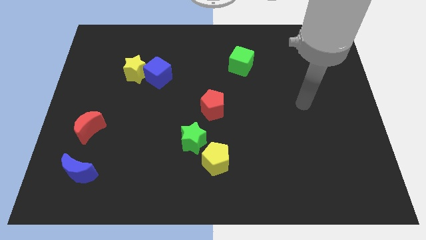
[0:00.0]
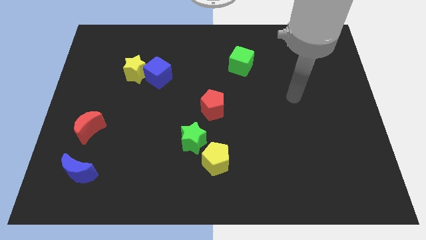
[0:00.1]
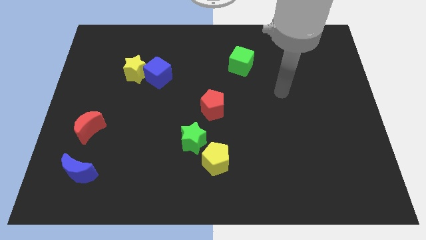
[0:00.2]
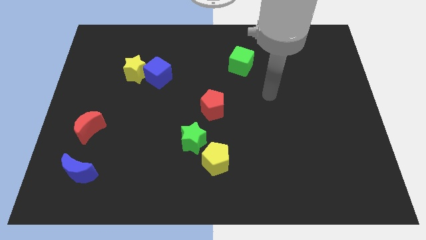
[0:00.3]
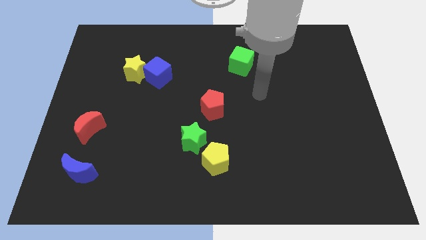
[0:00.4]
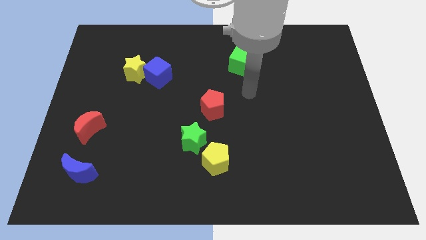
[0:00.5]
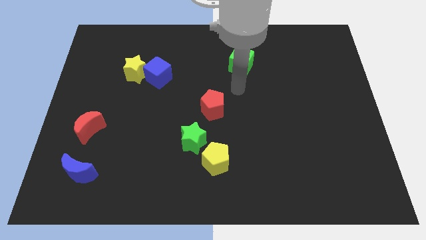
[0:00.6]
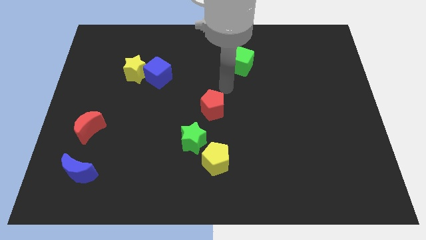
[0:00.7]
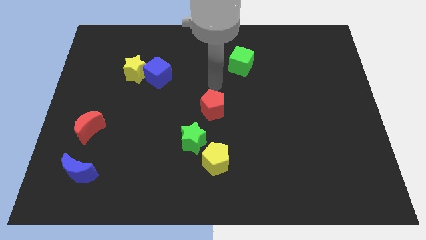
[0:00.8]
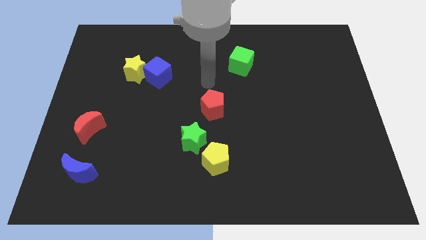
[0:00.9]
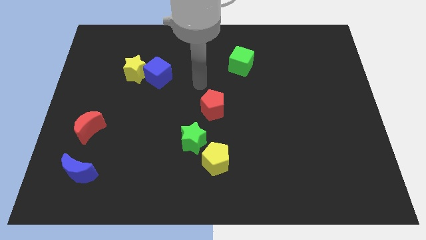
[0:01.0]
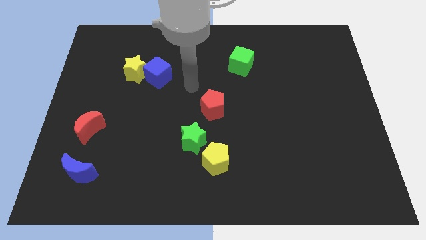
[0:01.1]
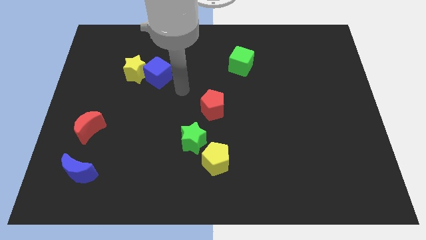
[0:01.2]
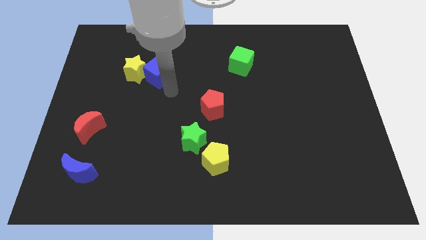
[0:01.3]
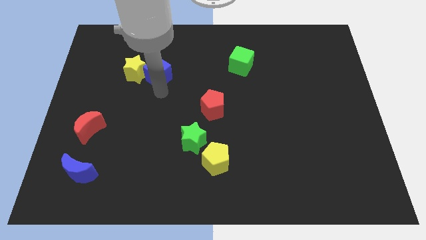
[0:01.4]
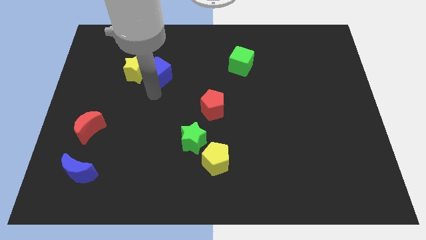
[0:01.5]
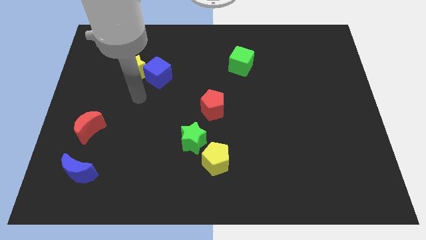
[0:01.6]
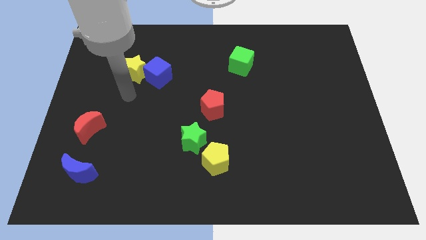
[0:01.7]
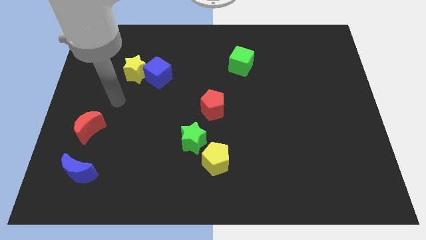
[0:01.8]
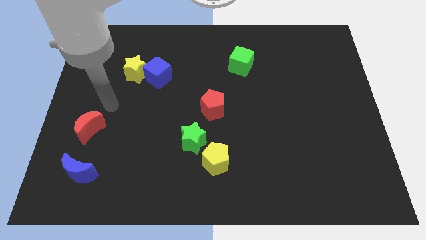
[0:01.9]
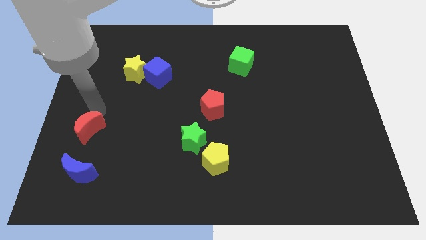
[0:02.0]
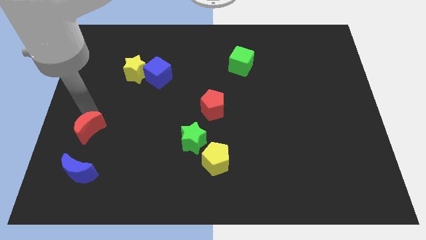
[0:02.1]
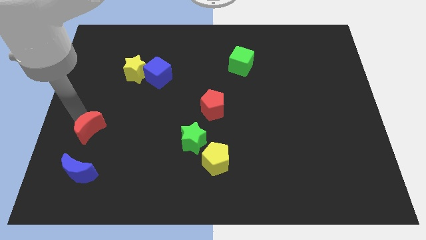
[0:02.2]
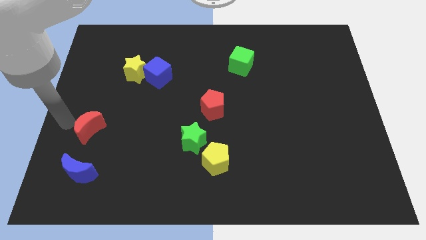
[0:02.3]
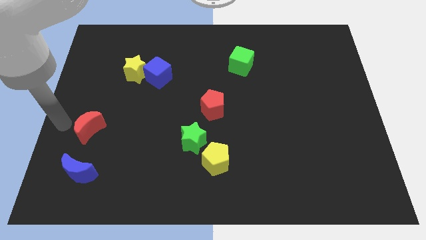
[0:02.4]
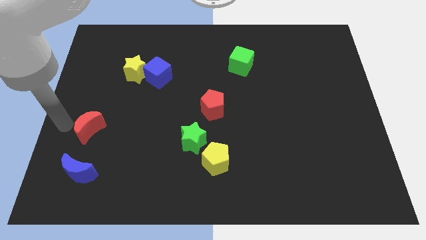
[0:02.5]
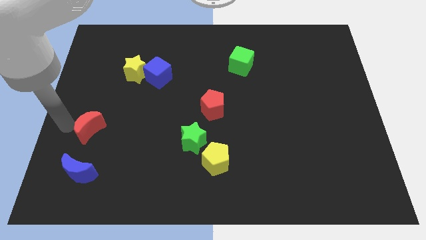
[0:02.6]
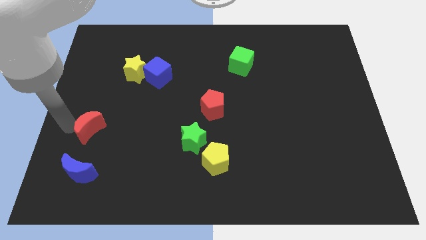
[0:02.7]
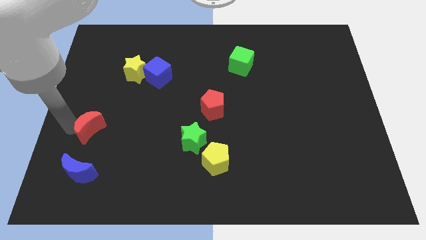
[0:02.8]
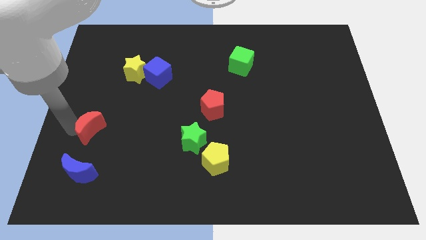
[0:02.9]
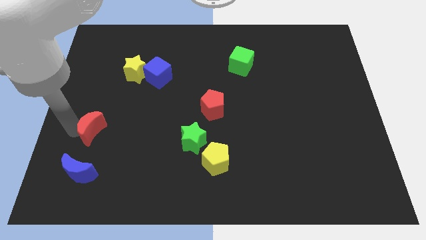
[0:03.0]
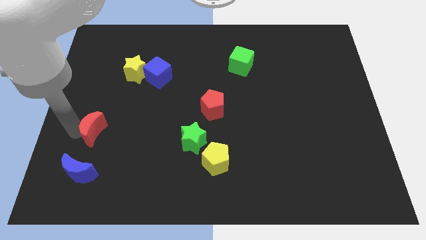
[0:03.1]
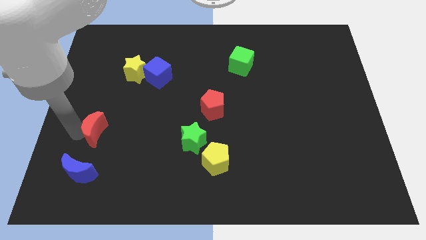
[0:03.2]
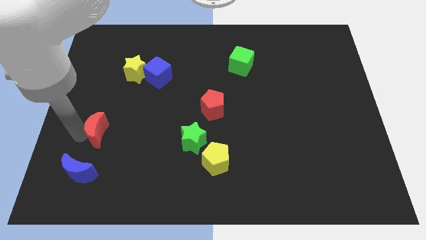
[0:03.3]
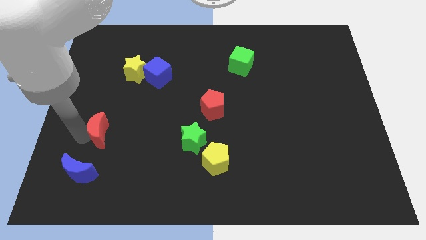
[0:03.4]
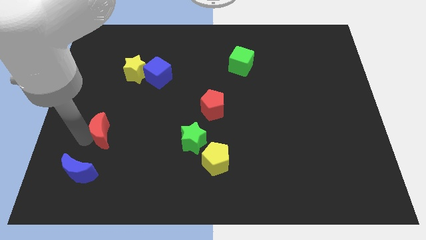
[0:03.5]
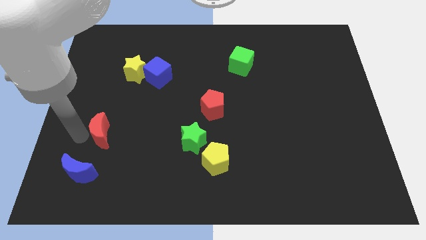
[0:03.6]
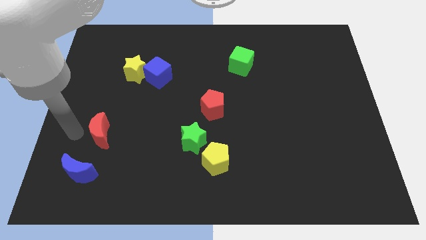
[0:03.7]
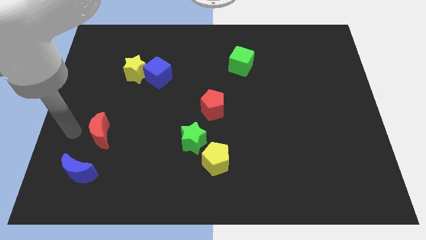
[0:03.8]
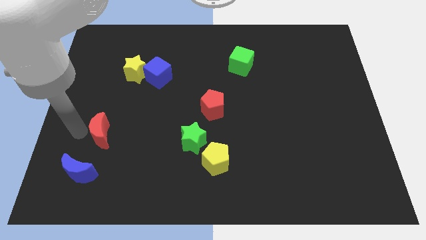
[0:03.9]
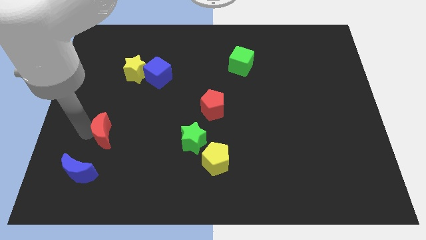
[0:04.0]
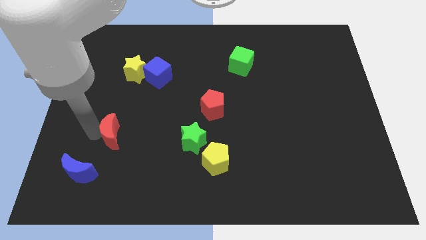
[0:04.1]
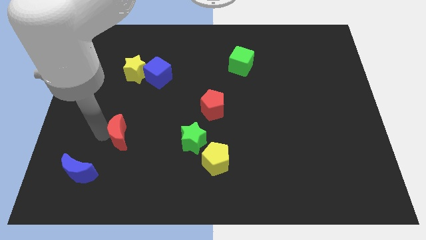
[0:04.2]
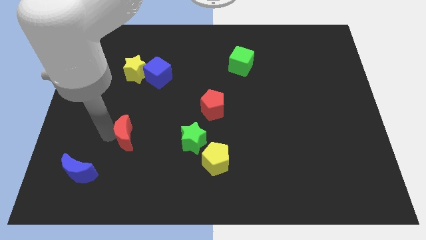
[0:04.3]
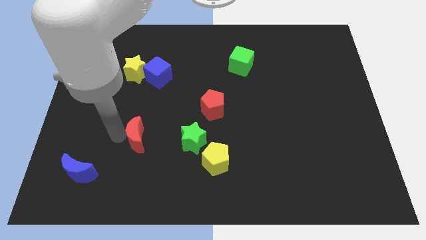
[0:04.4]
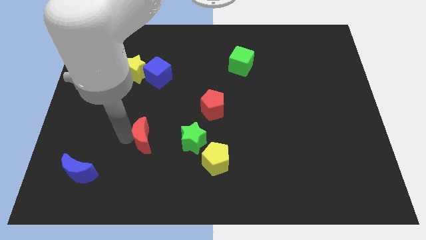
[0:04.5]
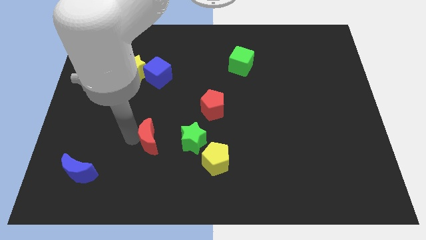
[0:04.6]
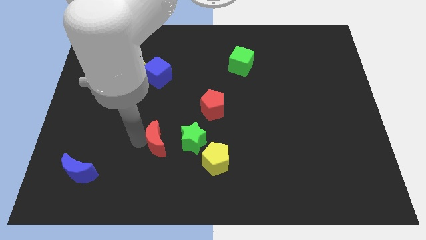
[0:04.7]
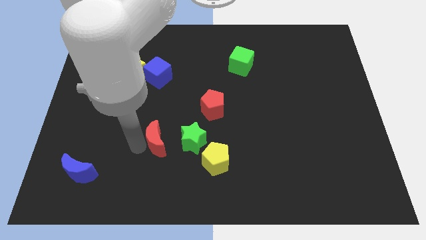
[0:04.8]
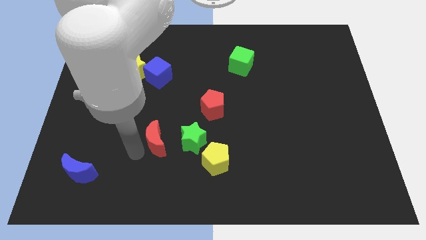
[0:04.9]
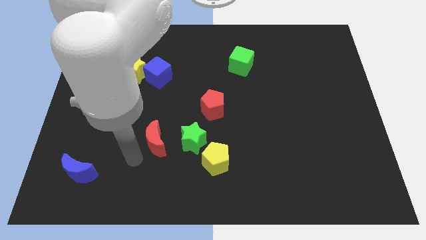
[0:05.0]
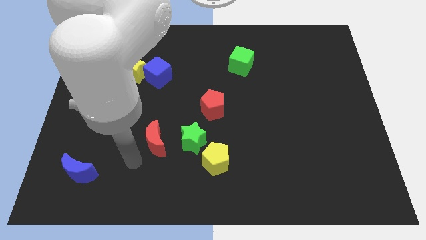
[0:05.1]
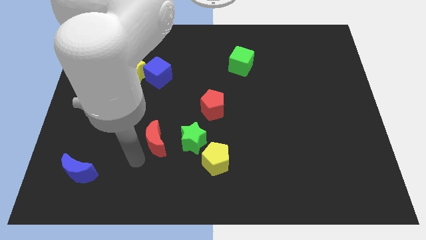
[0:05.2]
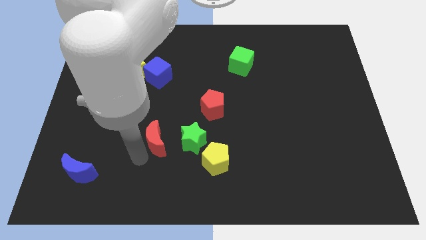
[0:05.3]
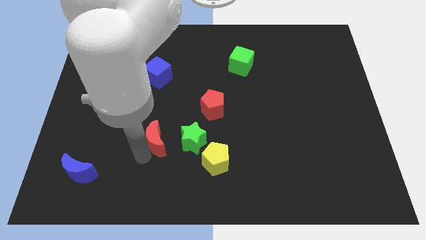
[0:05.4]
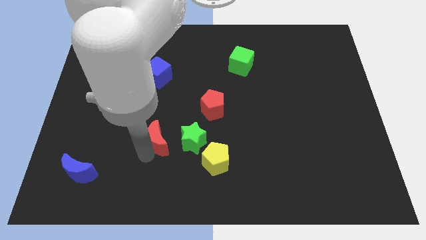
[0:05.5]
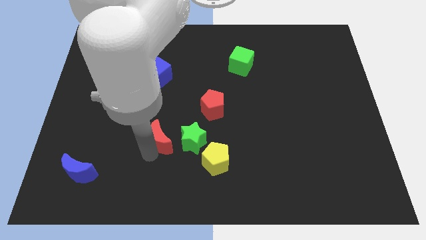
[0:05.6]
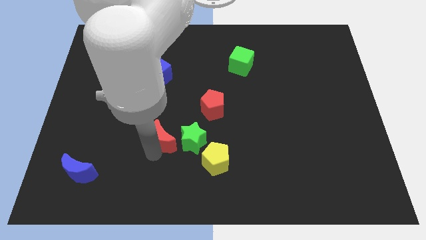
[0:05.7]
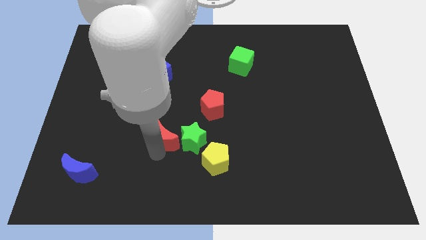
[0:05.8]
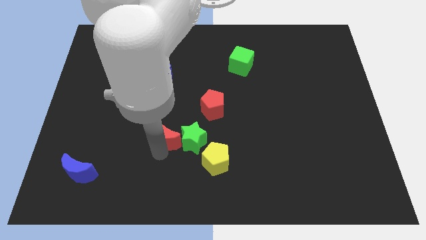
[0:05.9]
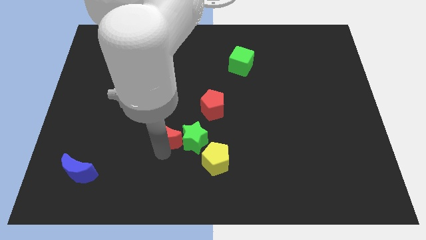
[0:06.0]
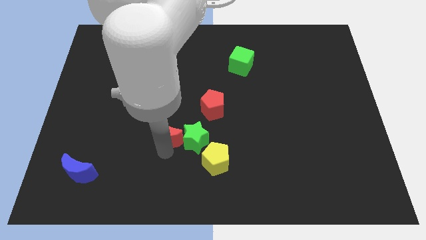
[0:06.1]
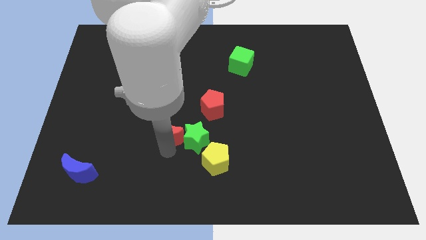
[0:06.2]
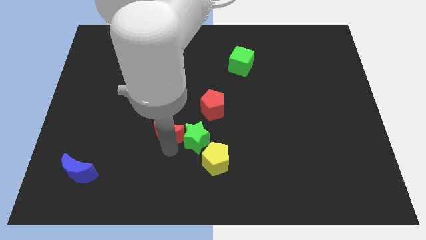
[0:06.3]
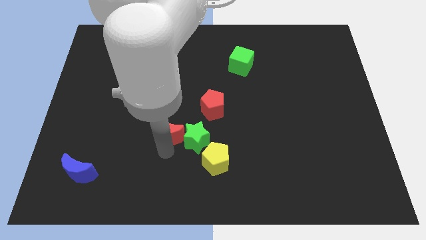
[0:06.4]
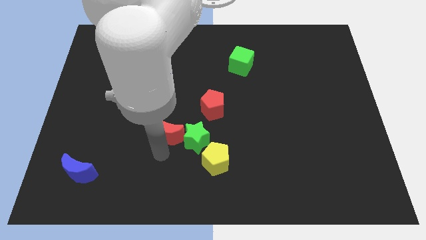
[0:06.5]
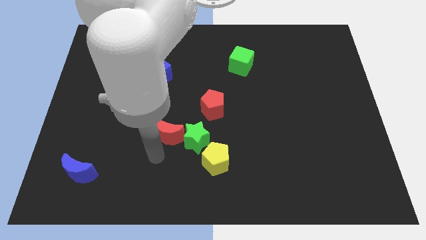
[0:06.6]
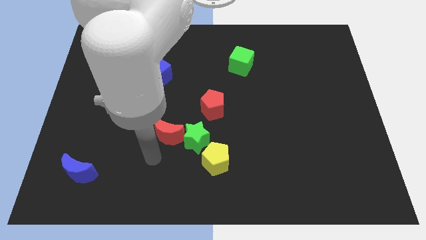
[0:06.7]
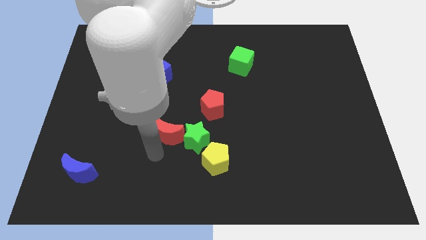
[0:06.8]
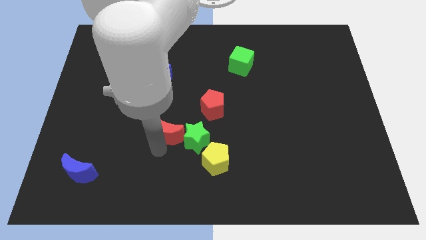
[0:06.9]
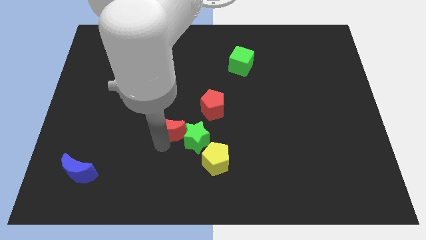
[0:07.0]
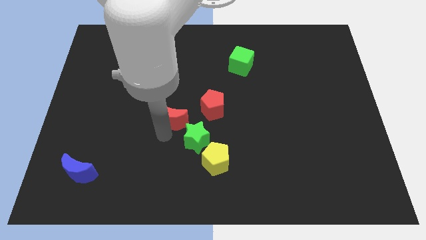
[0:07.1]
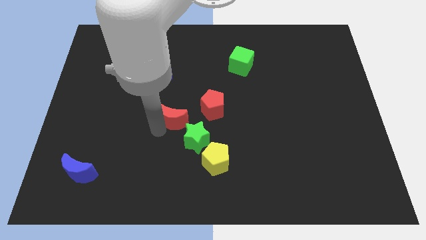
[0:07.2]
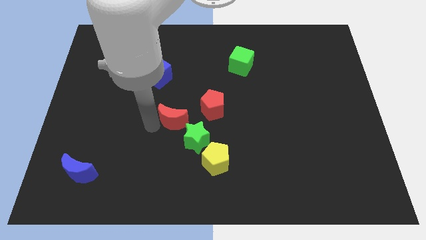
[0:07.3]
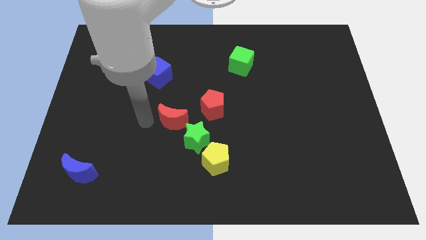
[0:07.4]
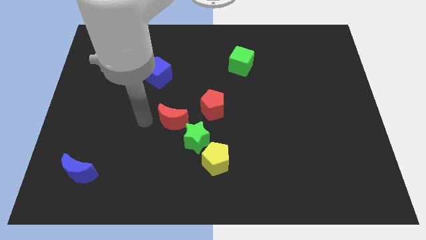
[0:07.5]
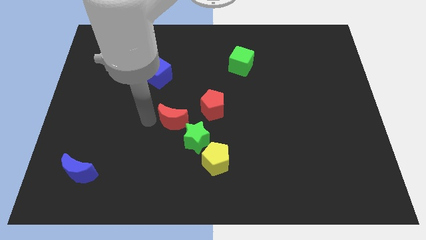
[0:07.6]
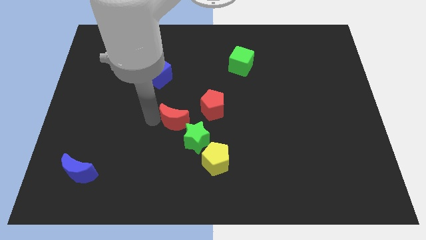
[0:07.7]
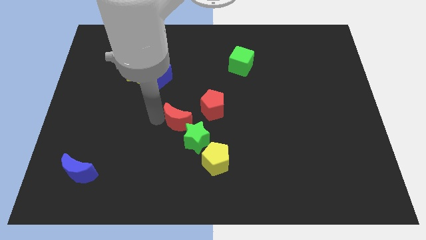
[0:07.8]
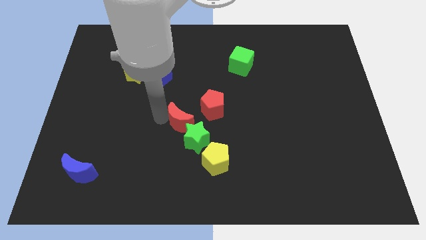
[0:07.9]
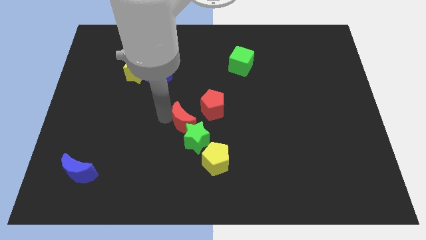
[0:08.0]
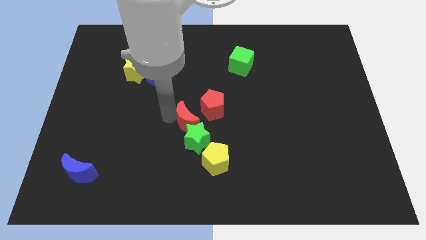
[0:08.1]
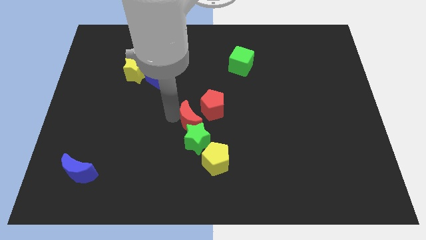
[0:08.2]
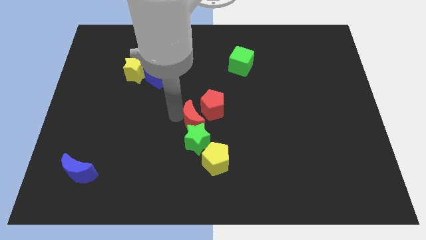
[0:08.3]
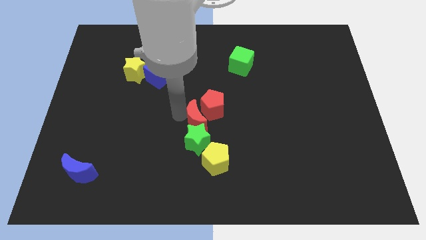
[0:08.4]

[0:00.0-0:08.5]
slide the red moon above the yellow pentagon
